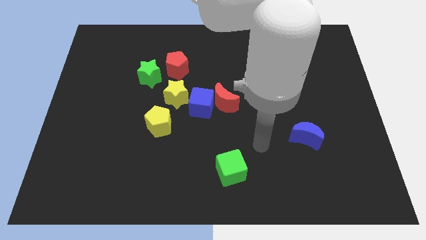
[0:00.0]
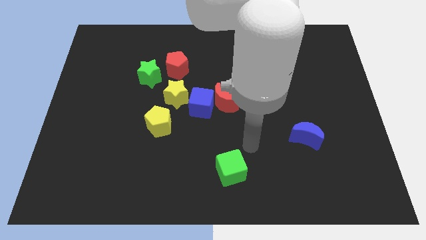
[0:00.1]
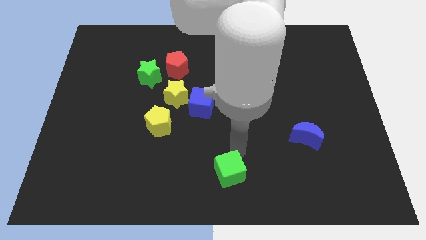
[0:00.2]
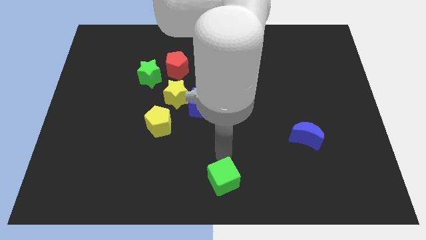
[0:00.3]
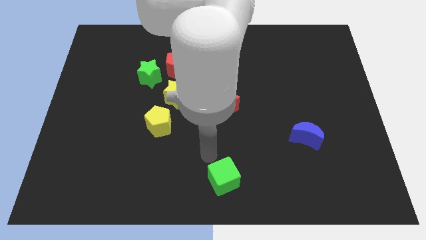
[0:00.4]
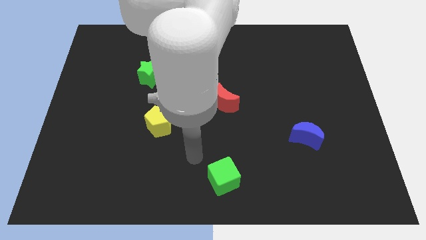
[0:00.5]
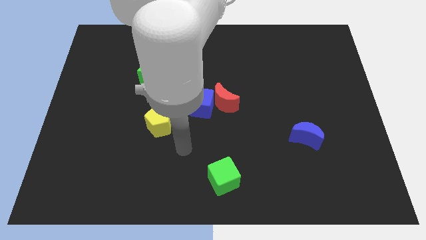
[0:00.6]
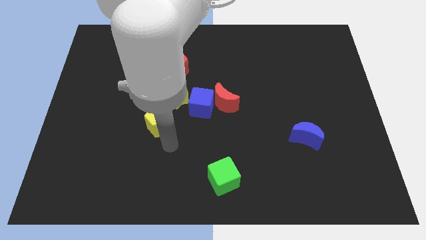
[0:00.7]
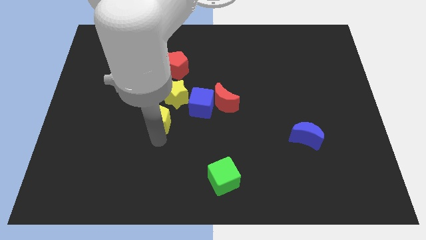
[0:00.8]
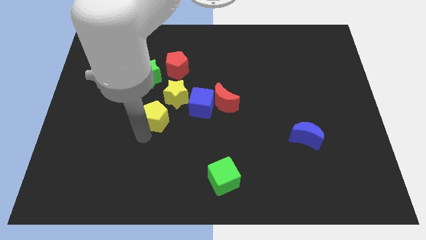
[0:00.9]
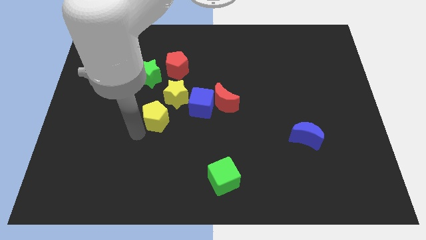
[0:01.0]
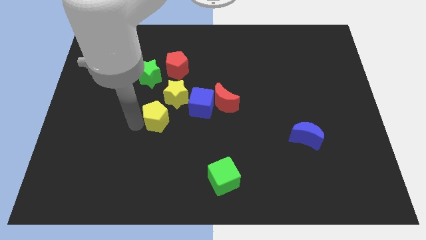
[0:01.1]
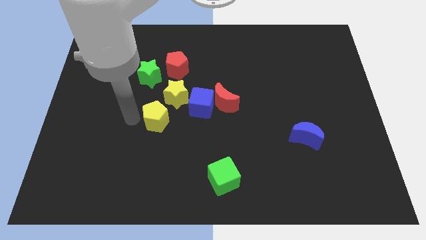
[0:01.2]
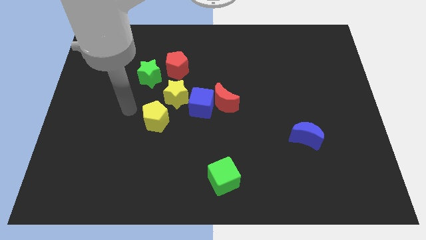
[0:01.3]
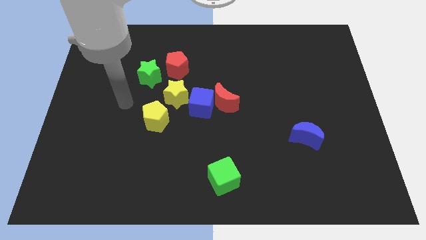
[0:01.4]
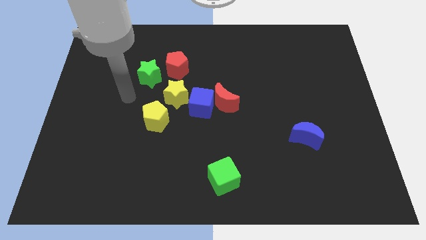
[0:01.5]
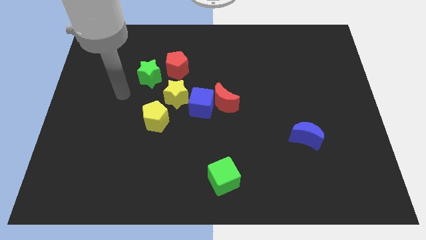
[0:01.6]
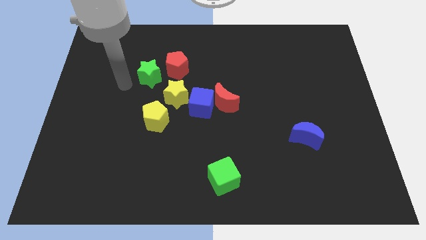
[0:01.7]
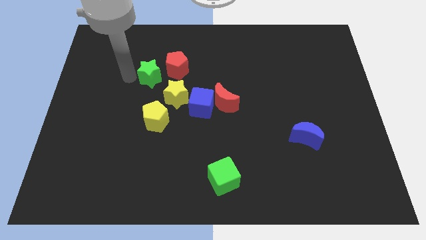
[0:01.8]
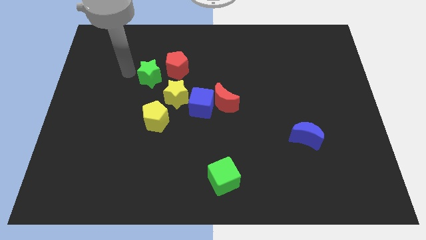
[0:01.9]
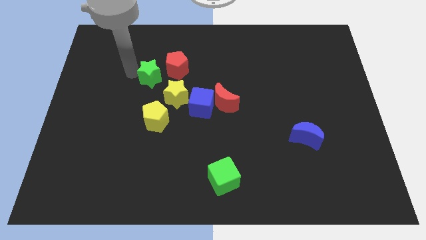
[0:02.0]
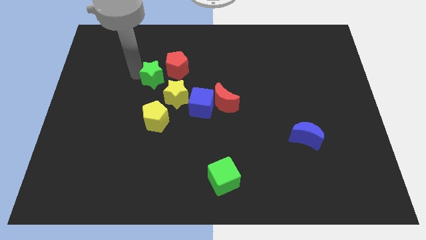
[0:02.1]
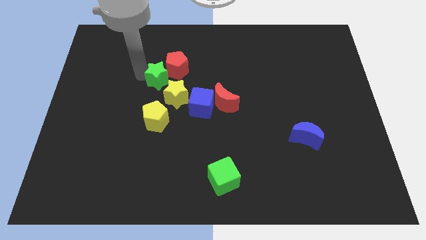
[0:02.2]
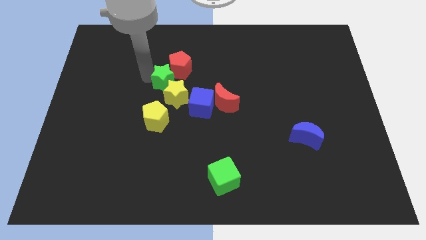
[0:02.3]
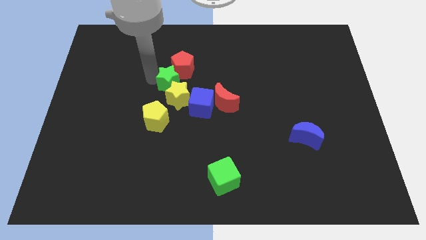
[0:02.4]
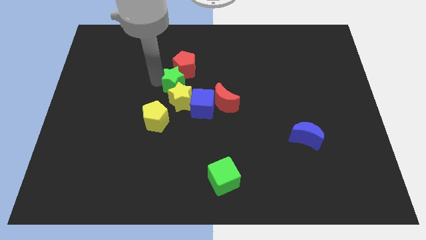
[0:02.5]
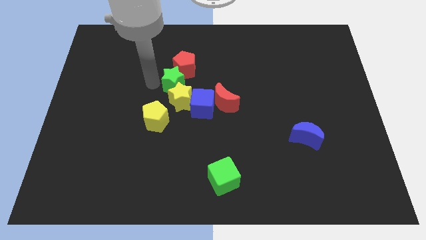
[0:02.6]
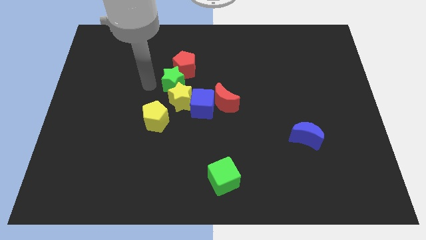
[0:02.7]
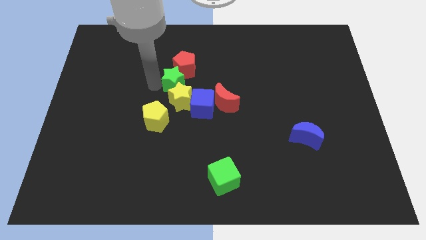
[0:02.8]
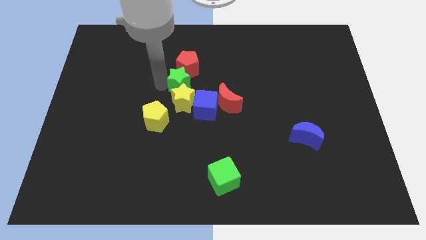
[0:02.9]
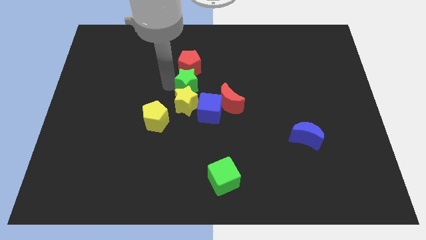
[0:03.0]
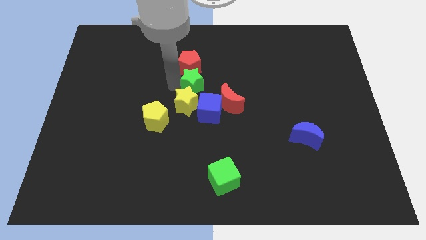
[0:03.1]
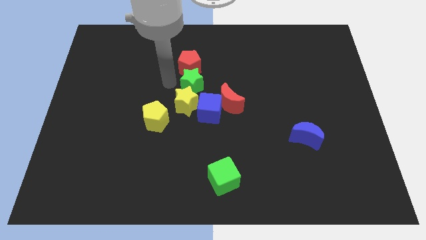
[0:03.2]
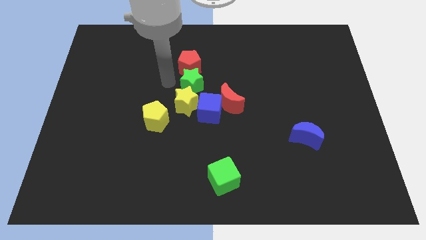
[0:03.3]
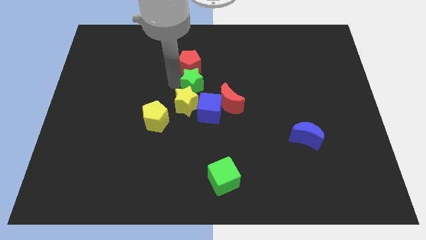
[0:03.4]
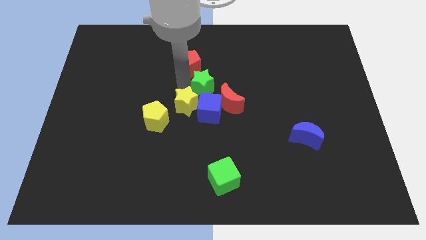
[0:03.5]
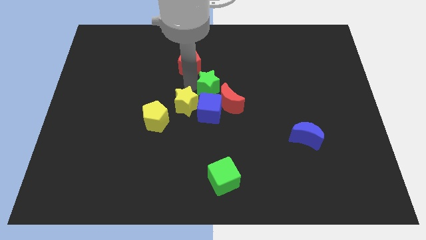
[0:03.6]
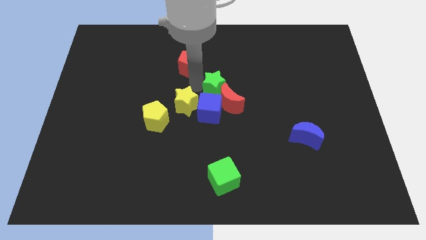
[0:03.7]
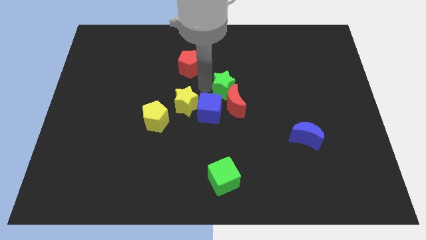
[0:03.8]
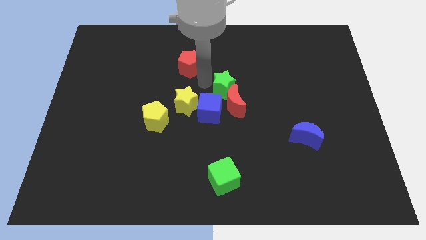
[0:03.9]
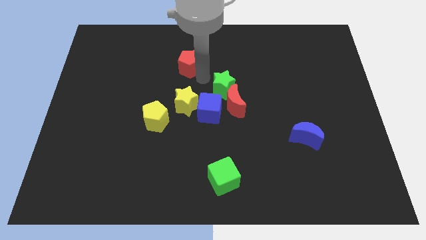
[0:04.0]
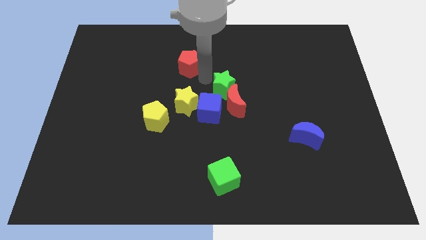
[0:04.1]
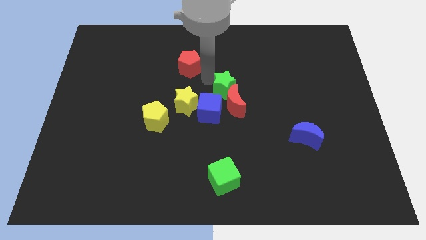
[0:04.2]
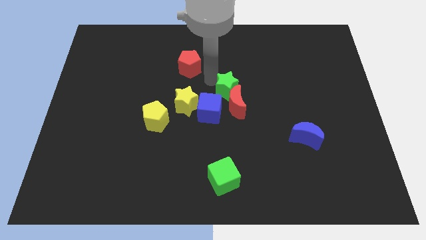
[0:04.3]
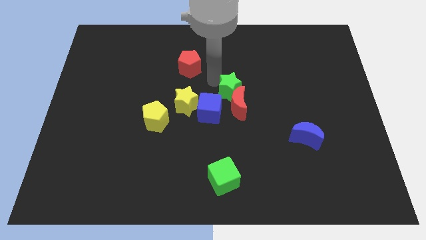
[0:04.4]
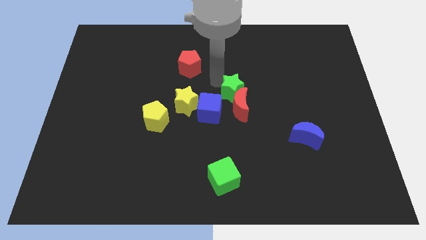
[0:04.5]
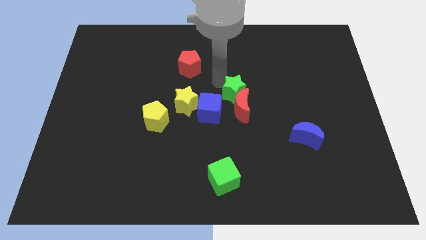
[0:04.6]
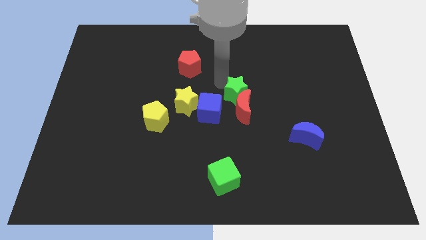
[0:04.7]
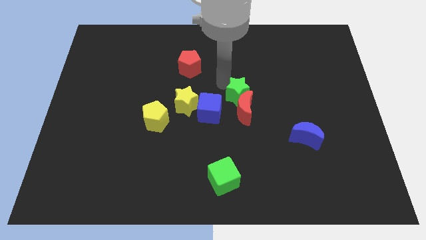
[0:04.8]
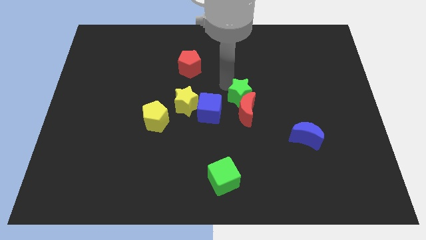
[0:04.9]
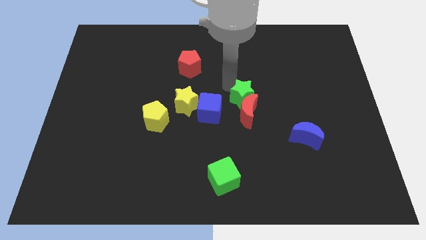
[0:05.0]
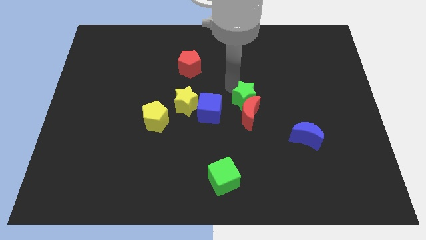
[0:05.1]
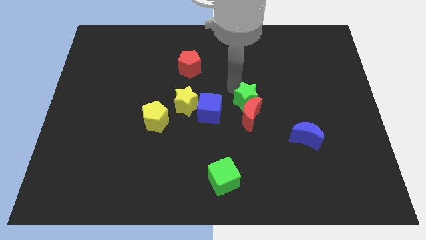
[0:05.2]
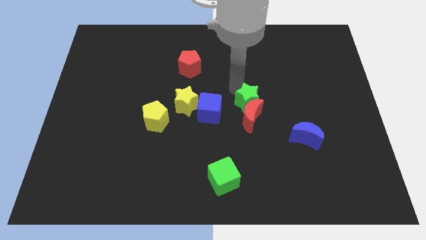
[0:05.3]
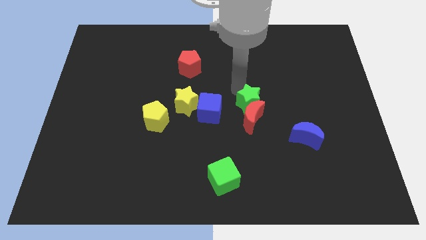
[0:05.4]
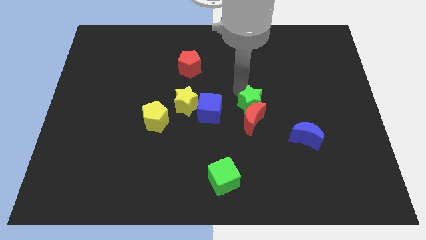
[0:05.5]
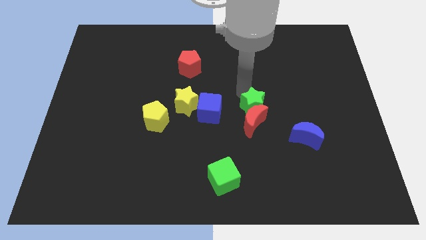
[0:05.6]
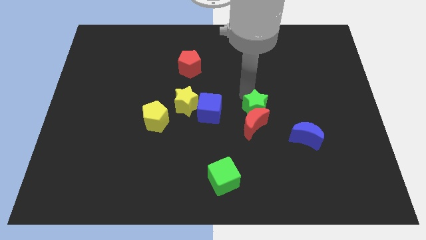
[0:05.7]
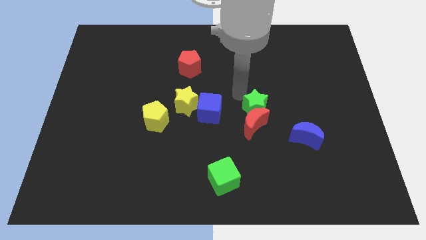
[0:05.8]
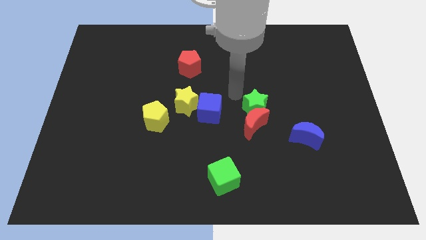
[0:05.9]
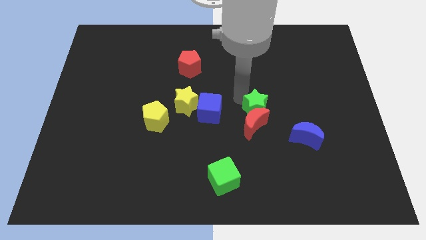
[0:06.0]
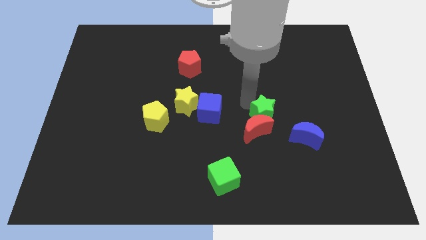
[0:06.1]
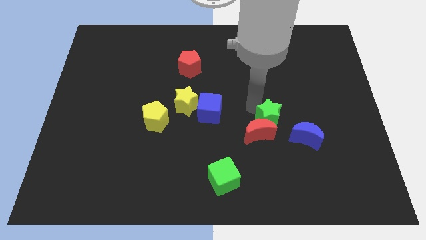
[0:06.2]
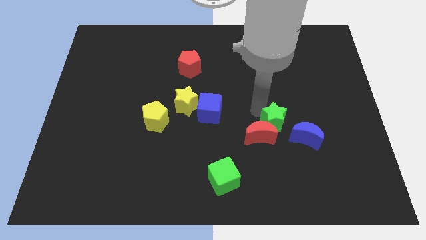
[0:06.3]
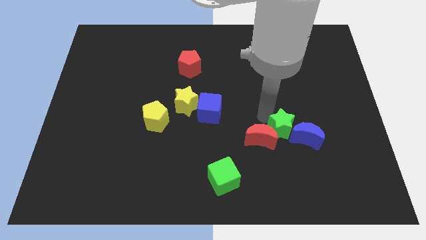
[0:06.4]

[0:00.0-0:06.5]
put the green star close to the blue moon
